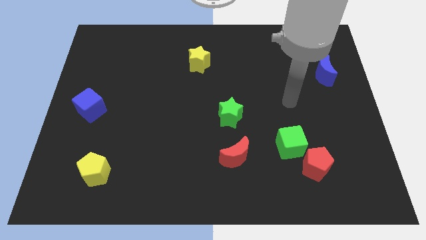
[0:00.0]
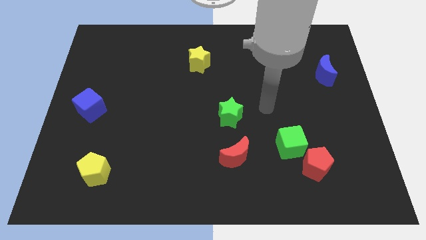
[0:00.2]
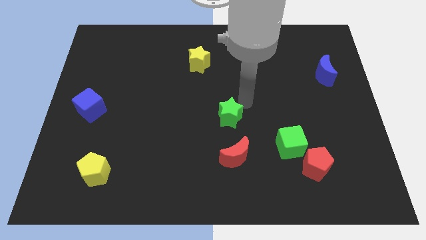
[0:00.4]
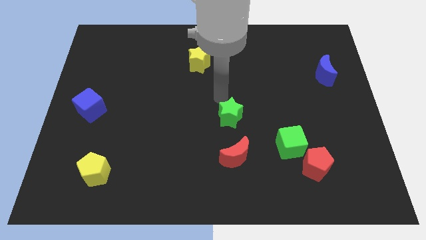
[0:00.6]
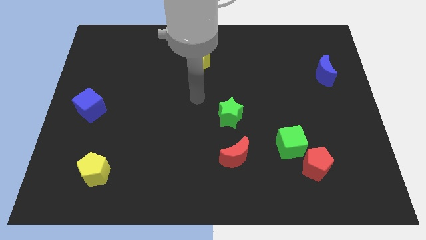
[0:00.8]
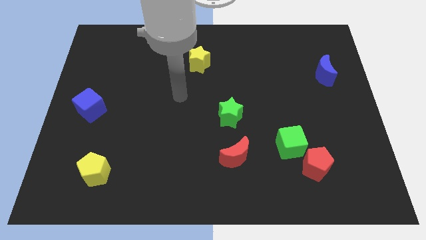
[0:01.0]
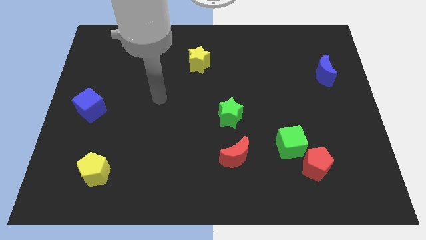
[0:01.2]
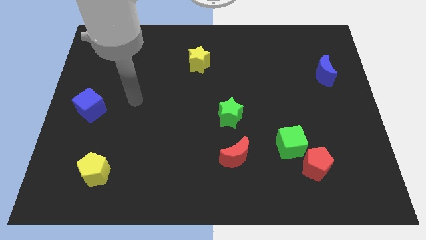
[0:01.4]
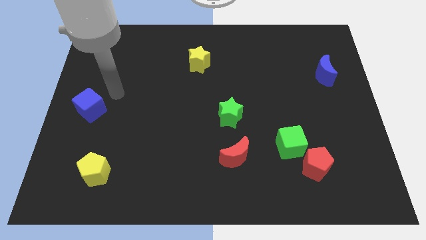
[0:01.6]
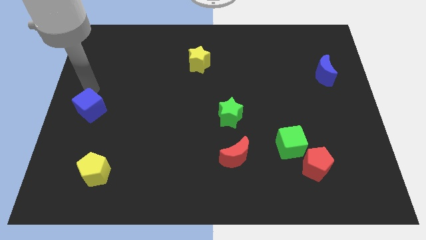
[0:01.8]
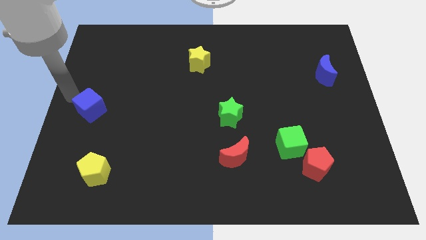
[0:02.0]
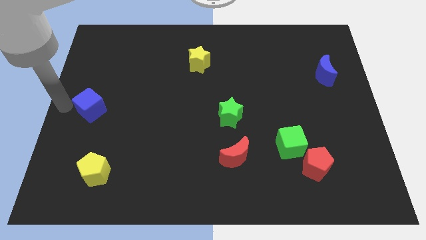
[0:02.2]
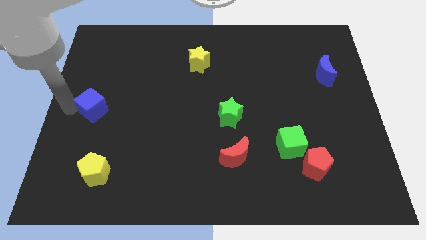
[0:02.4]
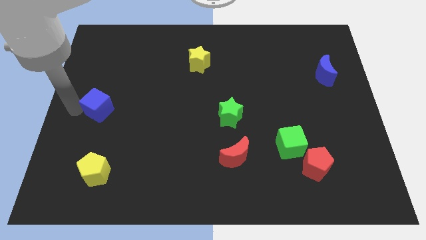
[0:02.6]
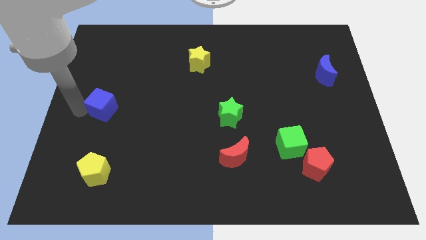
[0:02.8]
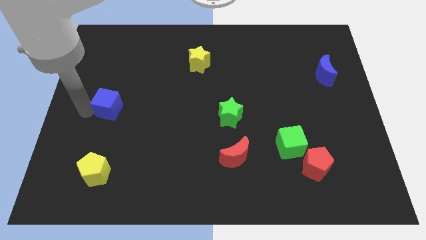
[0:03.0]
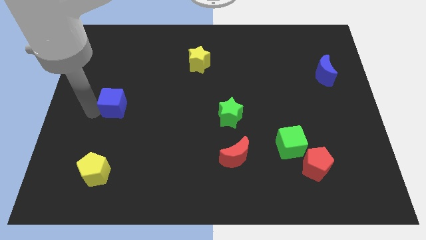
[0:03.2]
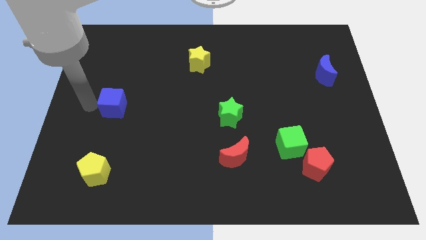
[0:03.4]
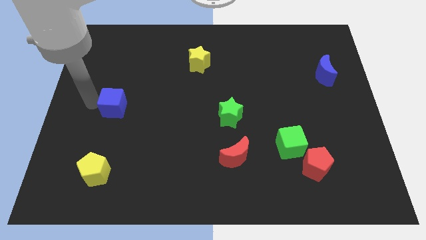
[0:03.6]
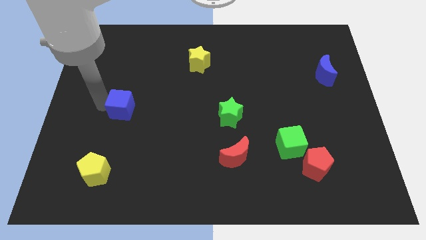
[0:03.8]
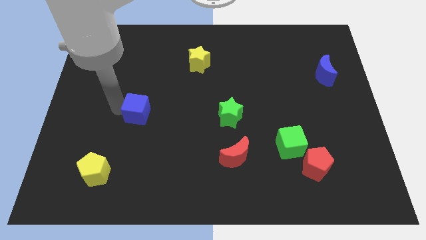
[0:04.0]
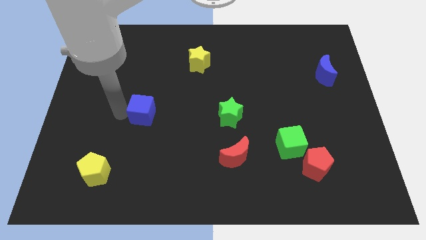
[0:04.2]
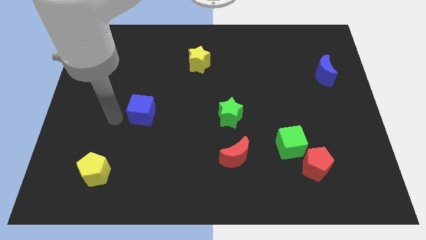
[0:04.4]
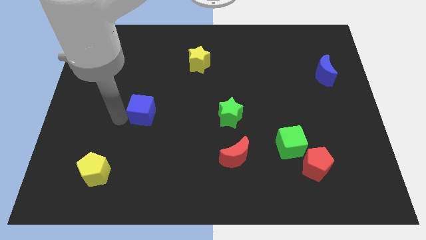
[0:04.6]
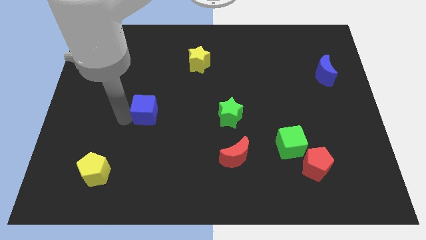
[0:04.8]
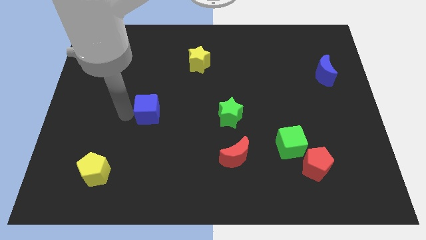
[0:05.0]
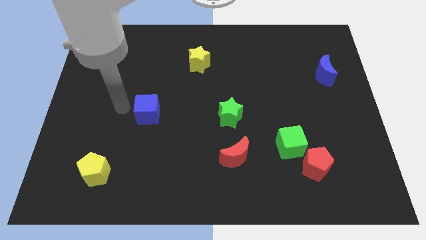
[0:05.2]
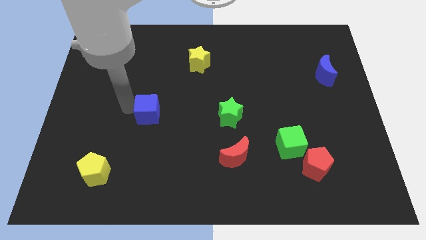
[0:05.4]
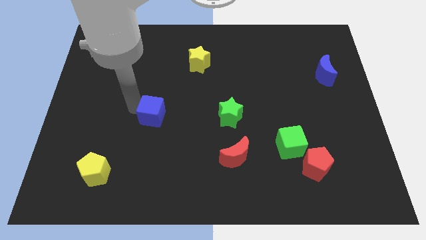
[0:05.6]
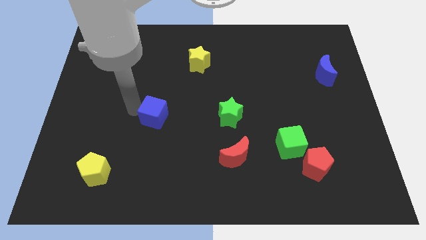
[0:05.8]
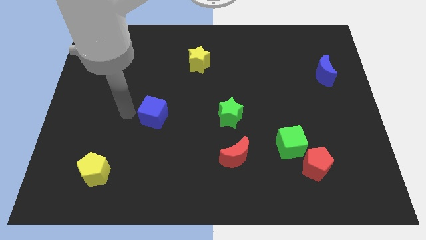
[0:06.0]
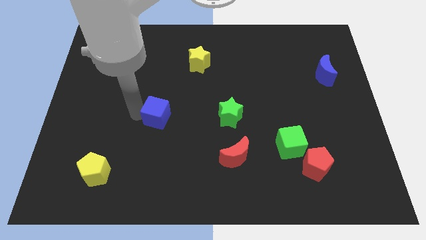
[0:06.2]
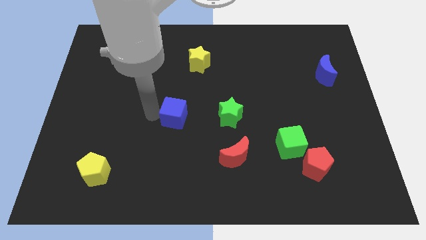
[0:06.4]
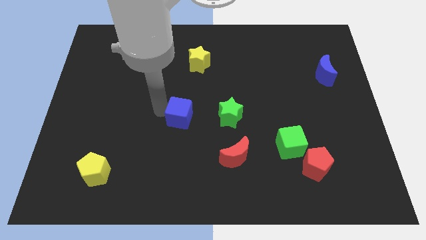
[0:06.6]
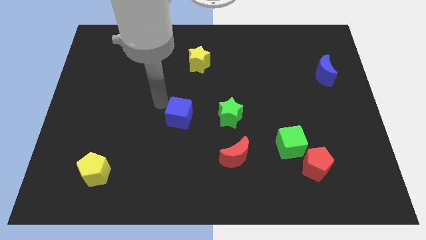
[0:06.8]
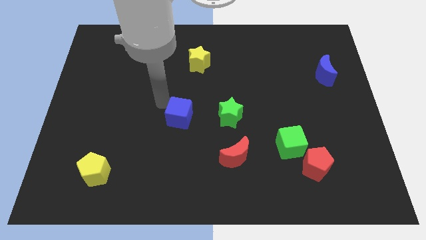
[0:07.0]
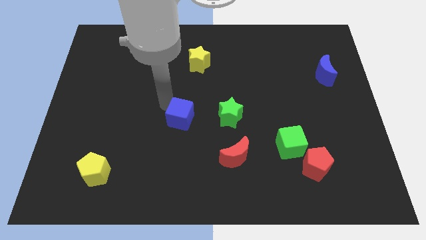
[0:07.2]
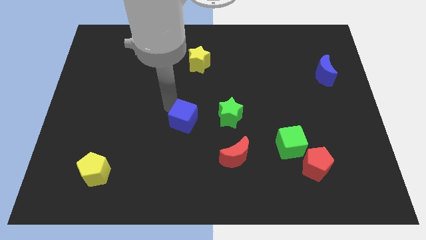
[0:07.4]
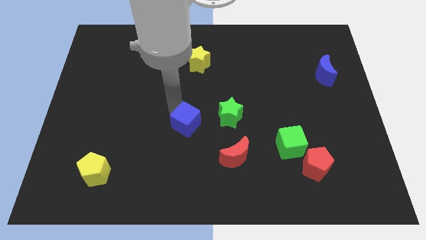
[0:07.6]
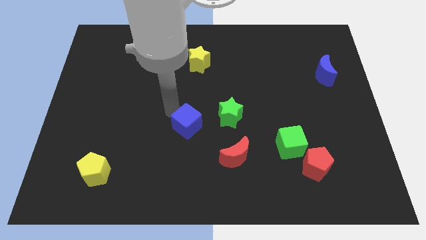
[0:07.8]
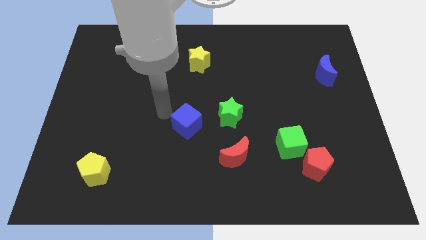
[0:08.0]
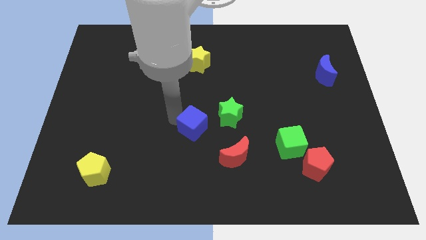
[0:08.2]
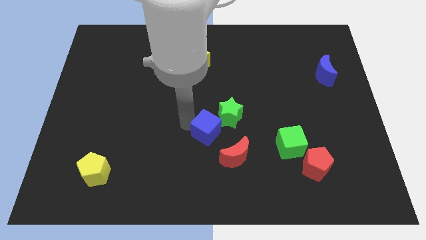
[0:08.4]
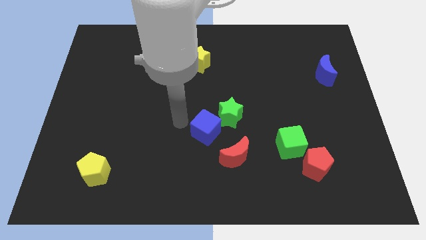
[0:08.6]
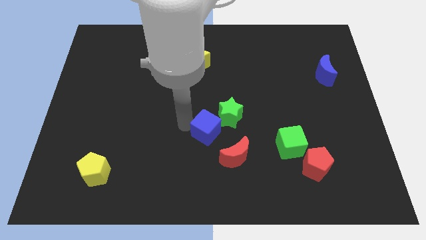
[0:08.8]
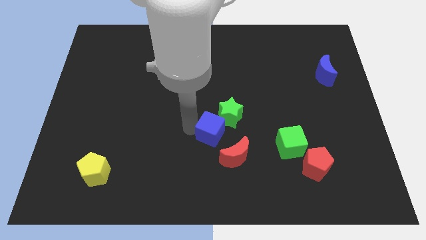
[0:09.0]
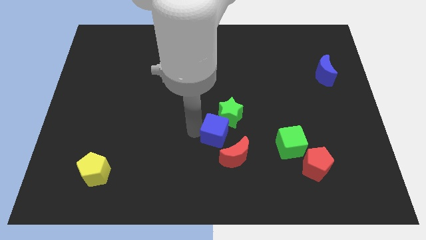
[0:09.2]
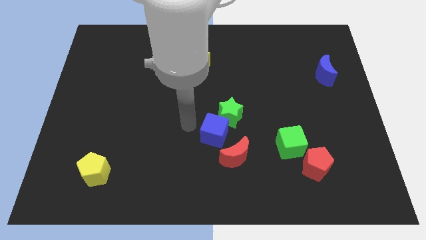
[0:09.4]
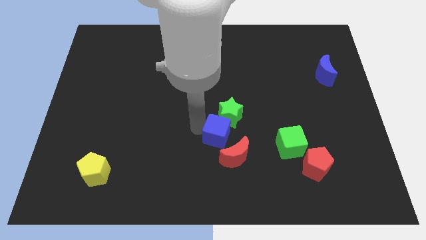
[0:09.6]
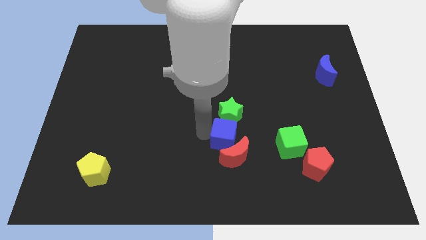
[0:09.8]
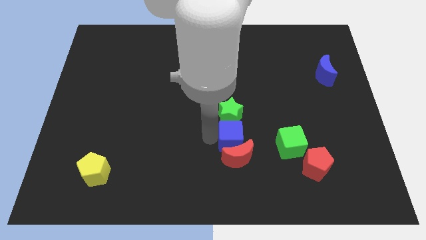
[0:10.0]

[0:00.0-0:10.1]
put the blue cube to the top right of the red moon

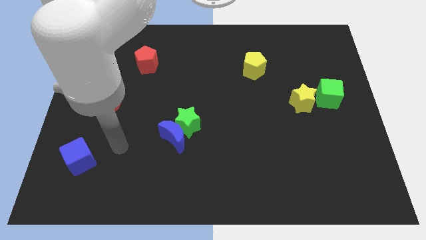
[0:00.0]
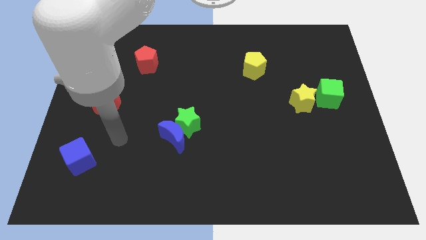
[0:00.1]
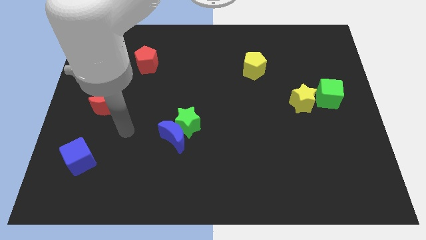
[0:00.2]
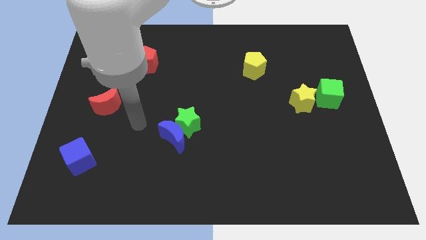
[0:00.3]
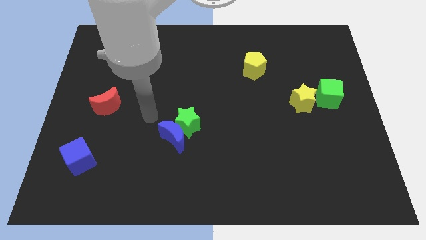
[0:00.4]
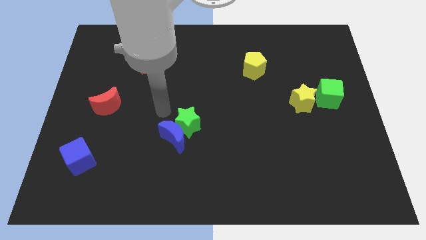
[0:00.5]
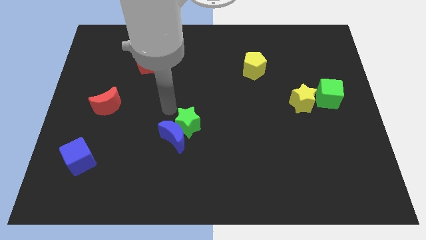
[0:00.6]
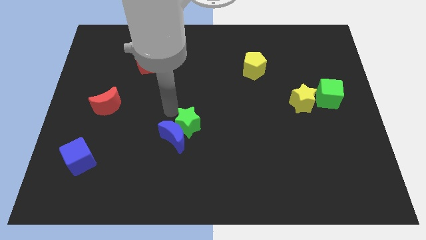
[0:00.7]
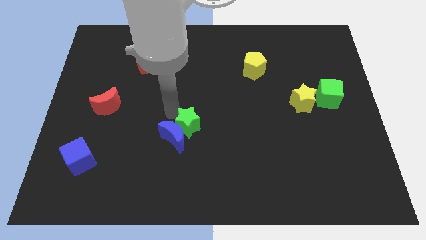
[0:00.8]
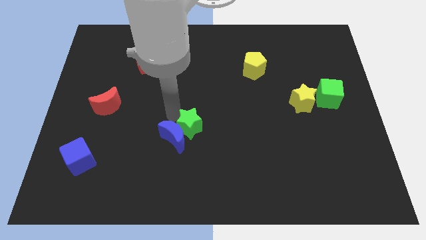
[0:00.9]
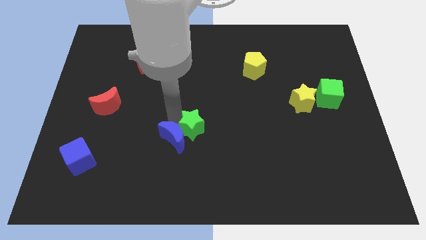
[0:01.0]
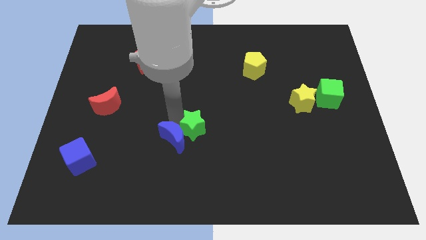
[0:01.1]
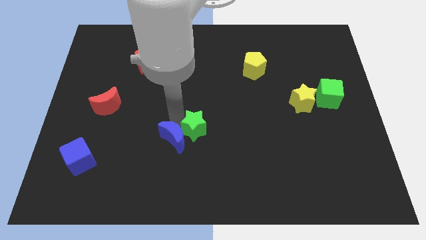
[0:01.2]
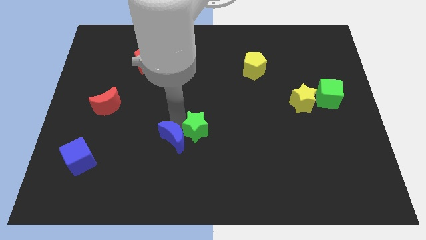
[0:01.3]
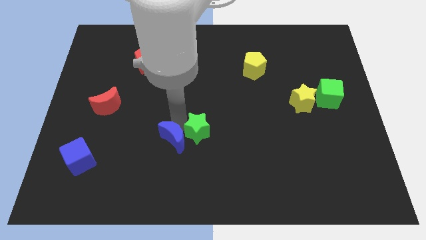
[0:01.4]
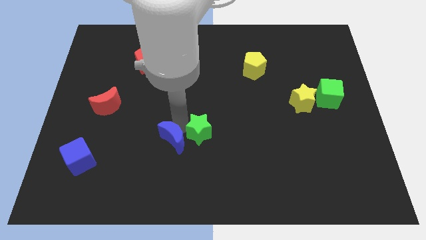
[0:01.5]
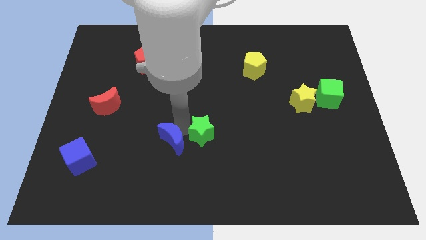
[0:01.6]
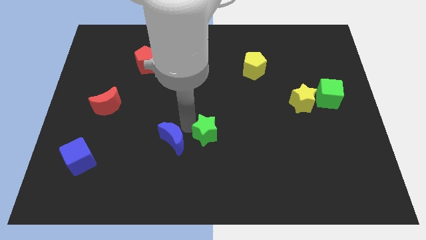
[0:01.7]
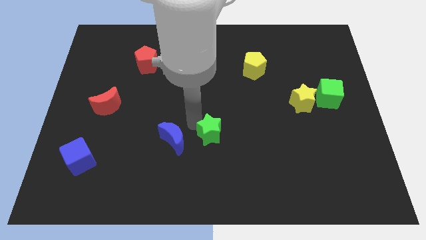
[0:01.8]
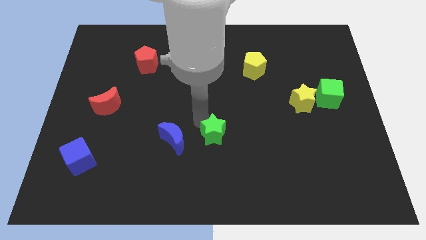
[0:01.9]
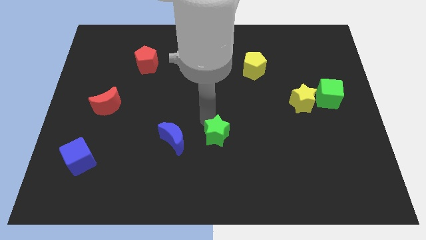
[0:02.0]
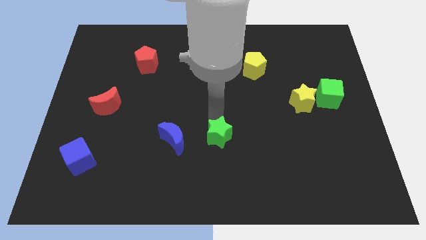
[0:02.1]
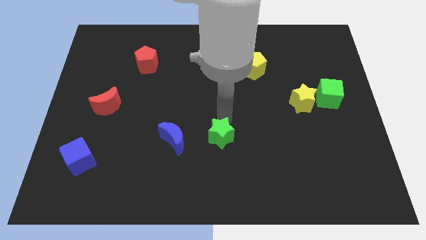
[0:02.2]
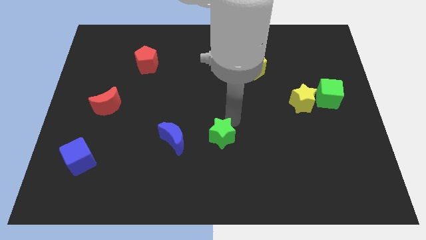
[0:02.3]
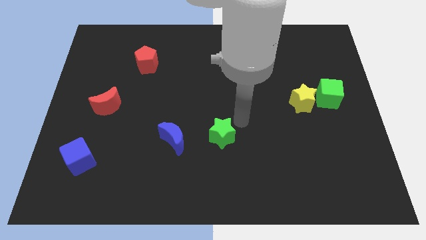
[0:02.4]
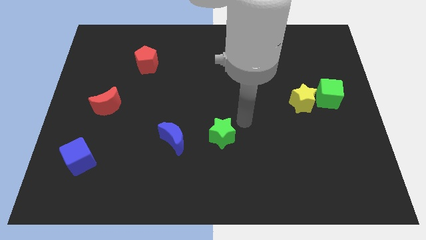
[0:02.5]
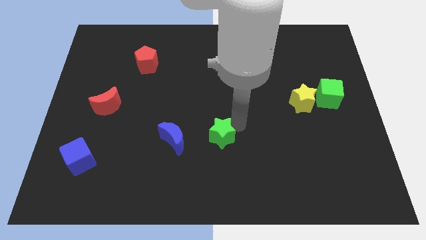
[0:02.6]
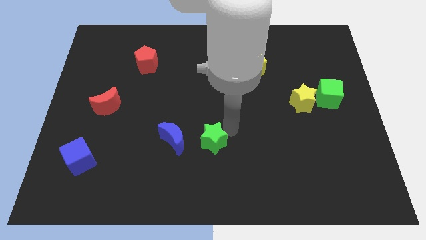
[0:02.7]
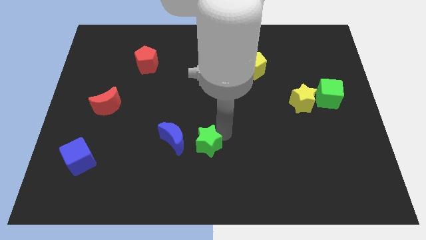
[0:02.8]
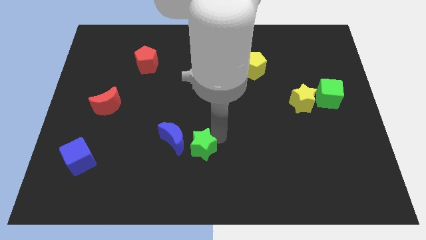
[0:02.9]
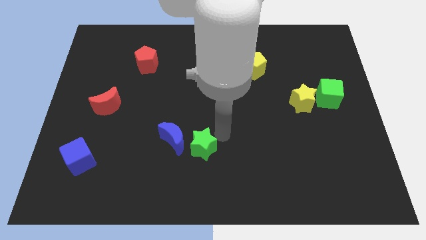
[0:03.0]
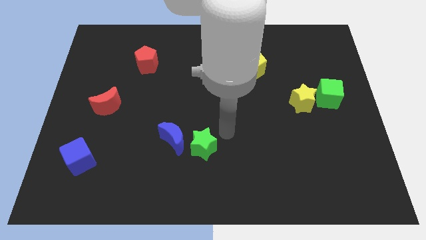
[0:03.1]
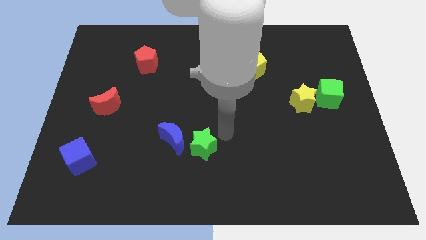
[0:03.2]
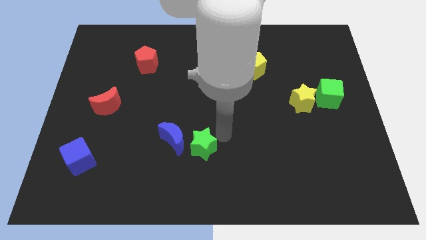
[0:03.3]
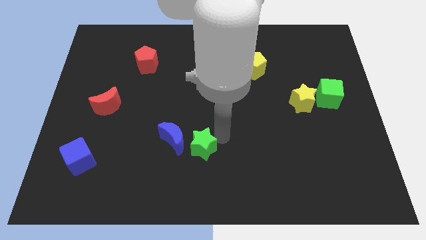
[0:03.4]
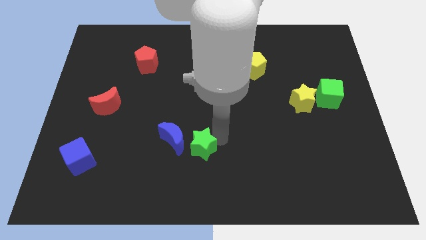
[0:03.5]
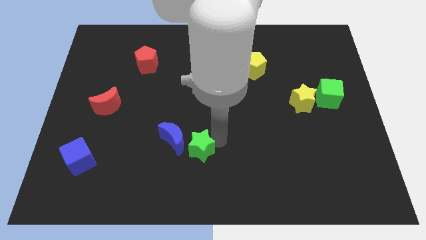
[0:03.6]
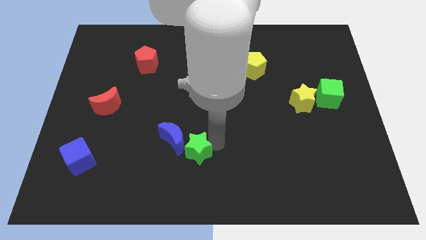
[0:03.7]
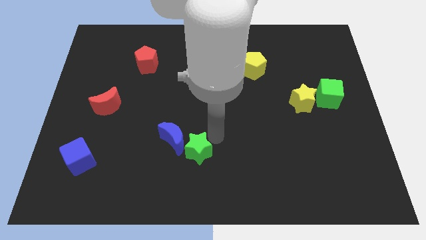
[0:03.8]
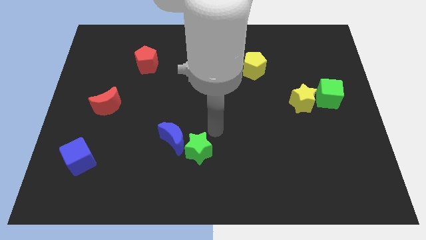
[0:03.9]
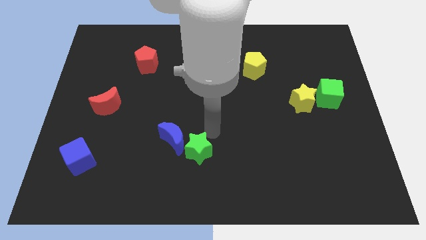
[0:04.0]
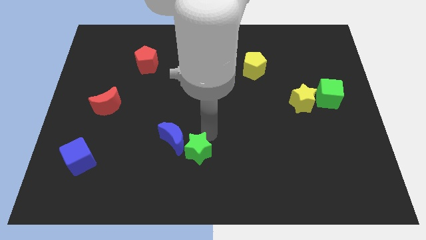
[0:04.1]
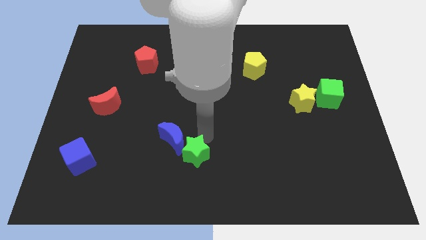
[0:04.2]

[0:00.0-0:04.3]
slide the green star to the bottom side of the blue moon
